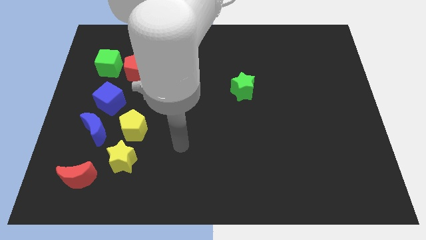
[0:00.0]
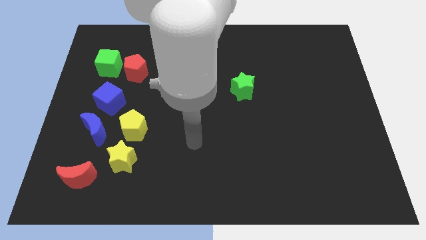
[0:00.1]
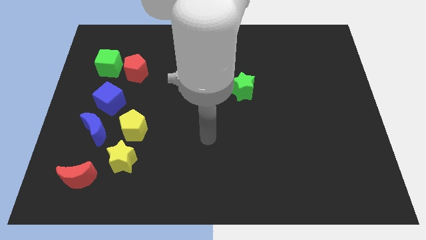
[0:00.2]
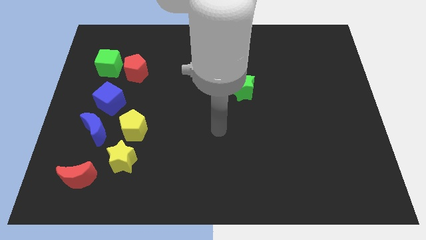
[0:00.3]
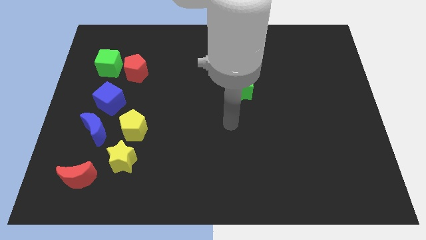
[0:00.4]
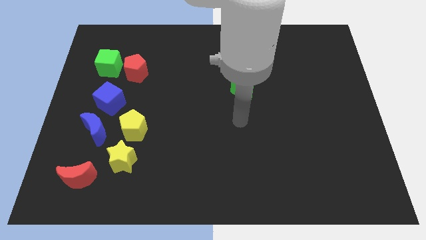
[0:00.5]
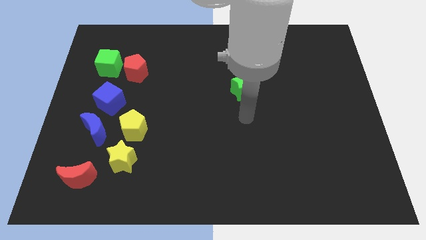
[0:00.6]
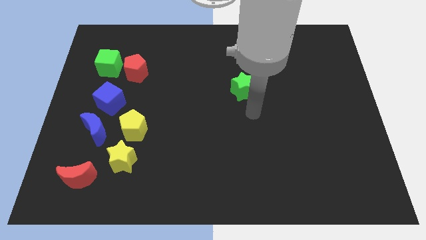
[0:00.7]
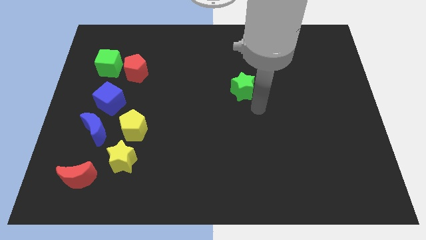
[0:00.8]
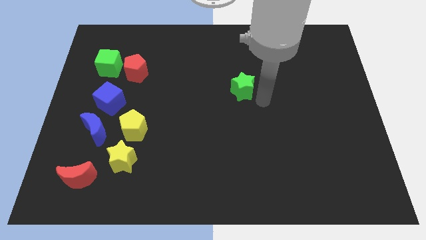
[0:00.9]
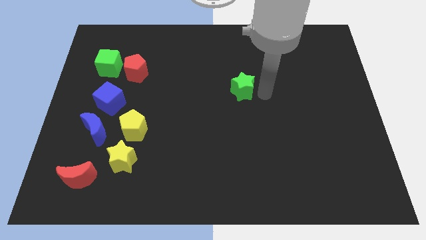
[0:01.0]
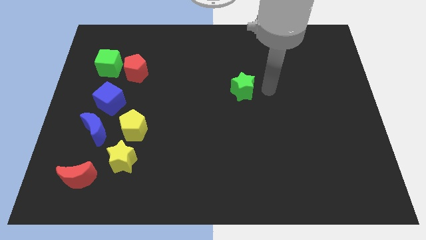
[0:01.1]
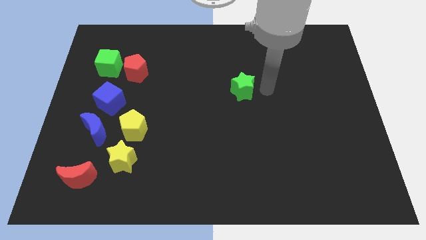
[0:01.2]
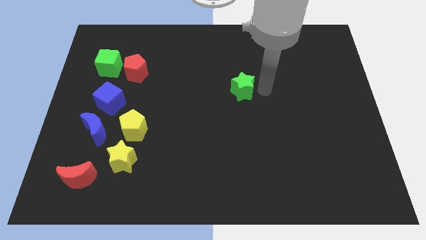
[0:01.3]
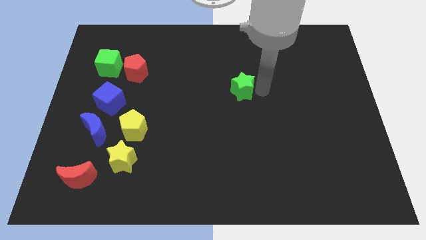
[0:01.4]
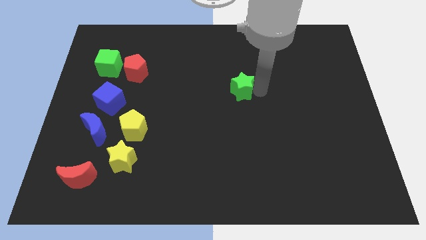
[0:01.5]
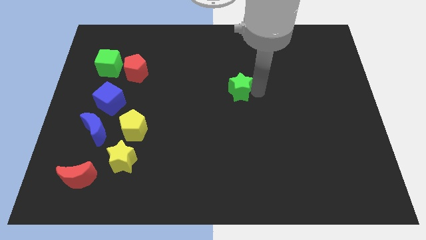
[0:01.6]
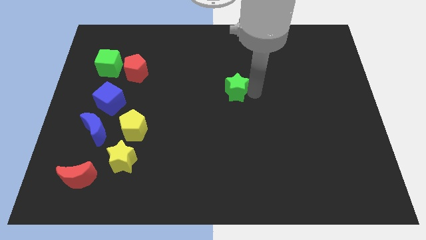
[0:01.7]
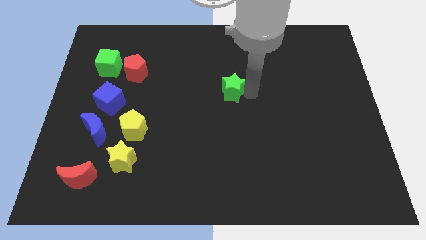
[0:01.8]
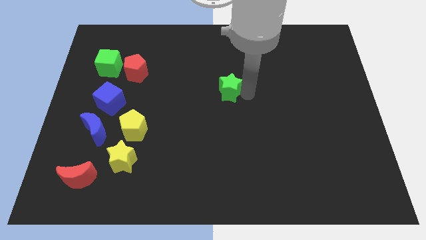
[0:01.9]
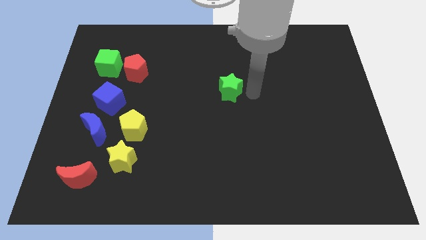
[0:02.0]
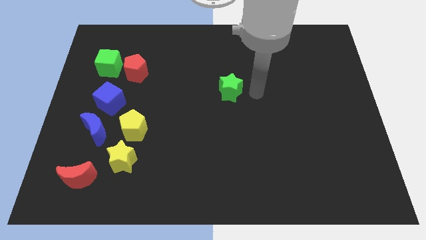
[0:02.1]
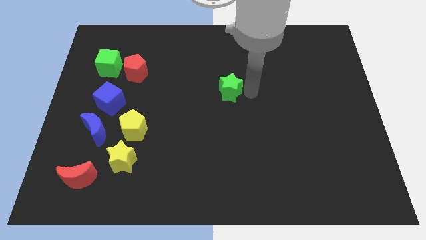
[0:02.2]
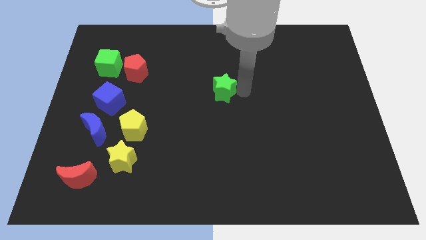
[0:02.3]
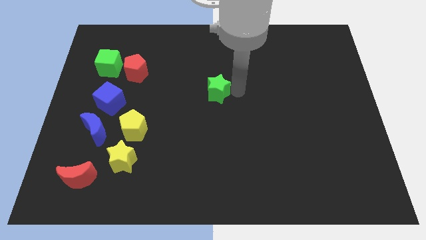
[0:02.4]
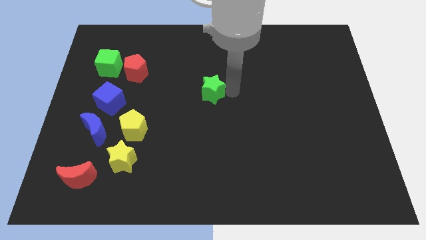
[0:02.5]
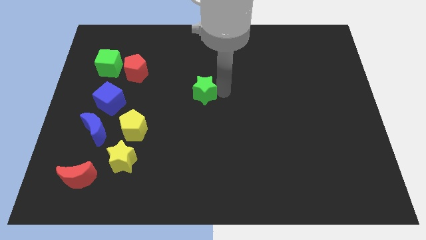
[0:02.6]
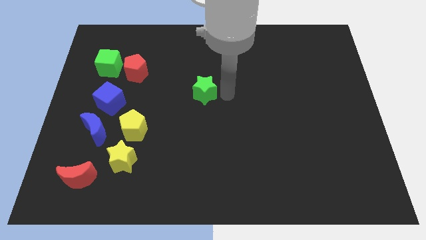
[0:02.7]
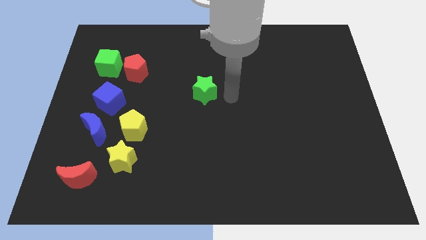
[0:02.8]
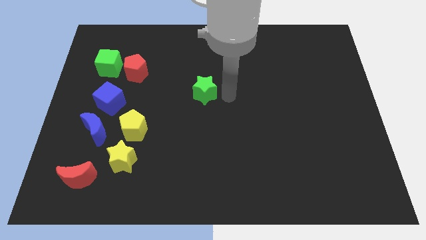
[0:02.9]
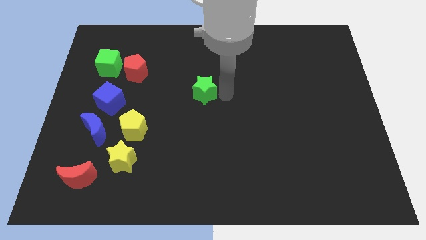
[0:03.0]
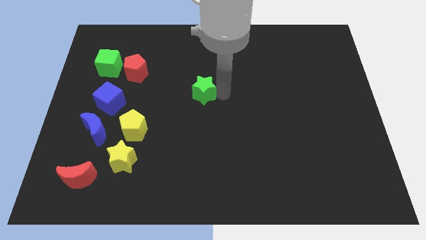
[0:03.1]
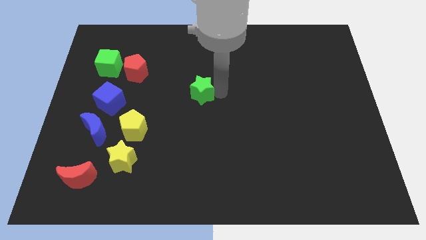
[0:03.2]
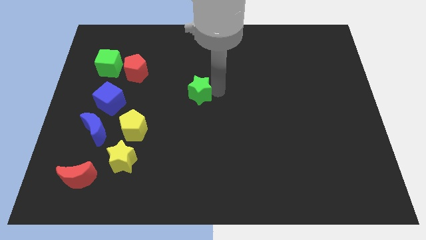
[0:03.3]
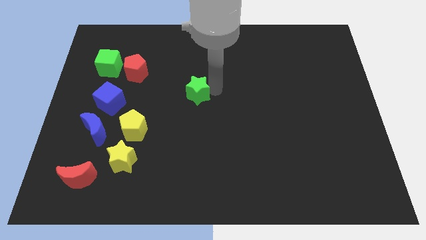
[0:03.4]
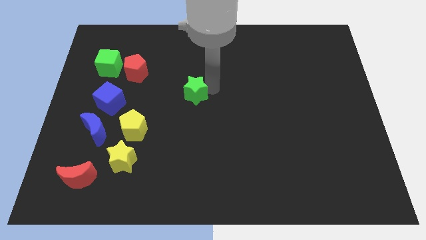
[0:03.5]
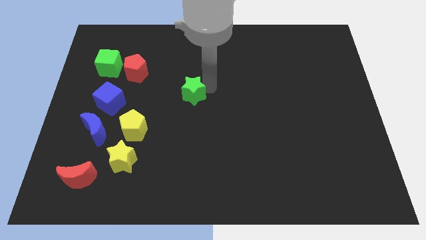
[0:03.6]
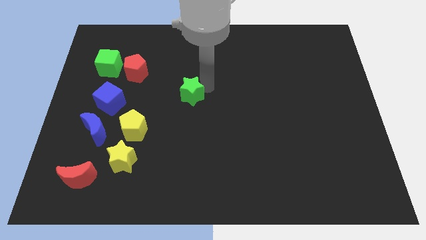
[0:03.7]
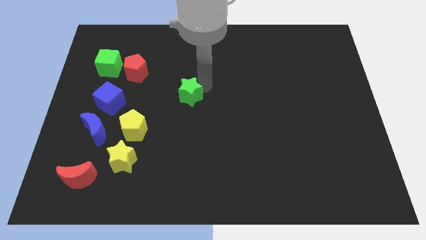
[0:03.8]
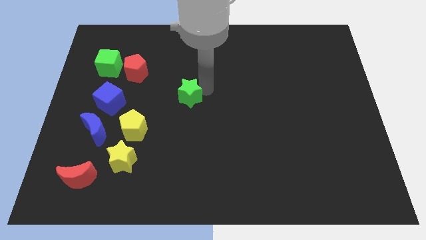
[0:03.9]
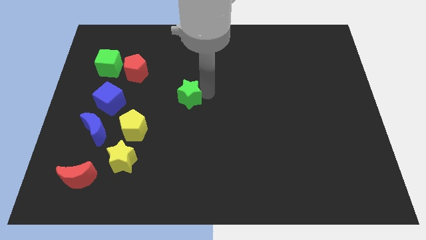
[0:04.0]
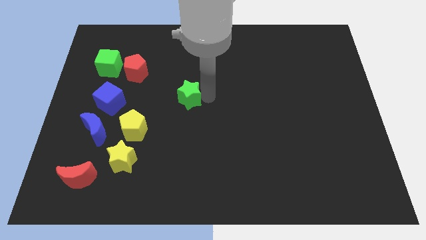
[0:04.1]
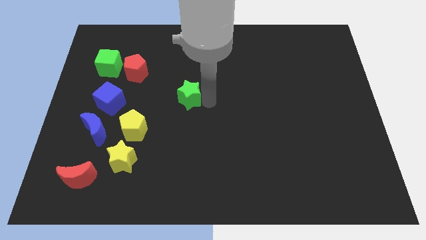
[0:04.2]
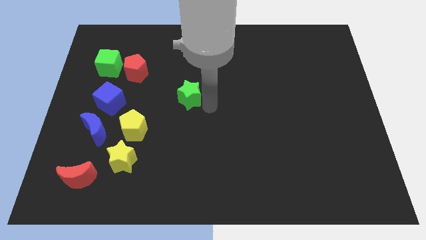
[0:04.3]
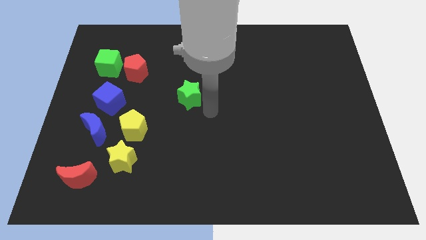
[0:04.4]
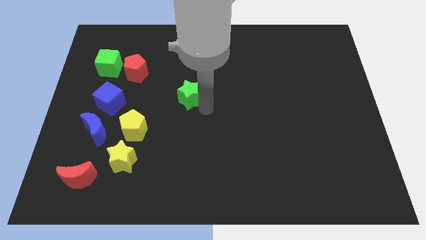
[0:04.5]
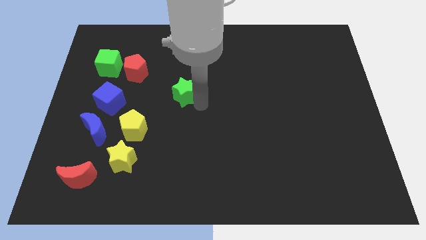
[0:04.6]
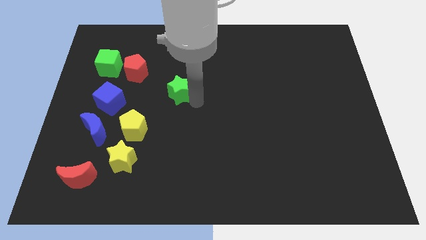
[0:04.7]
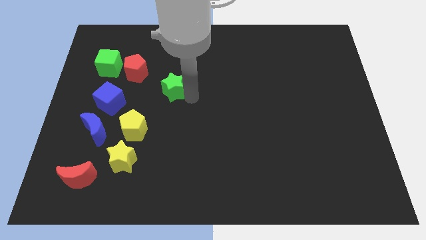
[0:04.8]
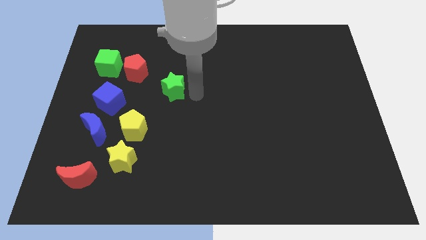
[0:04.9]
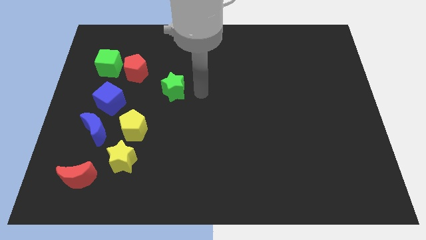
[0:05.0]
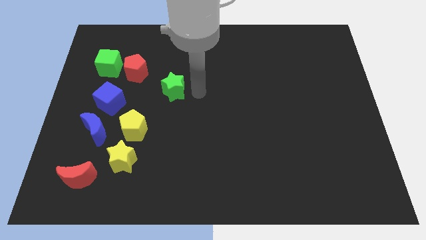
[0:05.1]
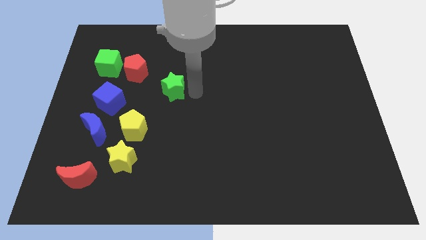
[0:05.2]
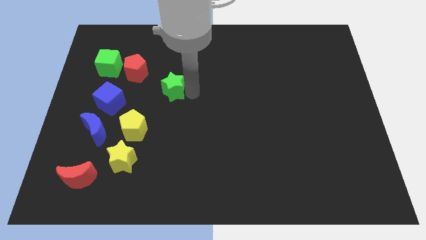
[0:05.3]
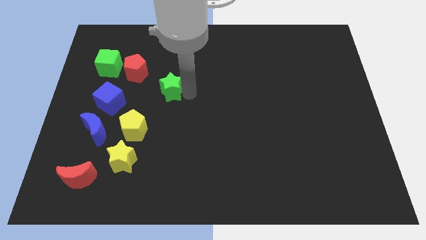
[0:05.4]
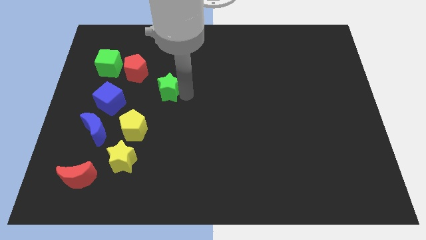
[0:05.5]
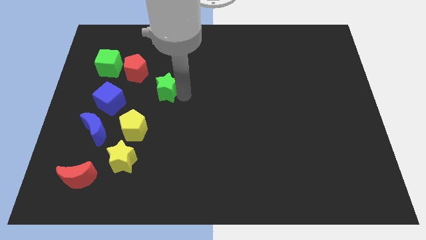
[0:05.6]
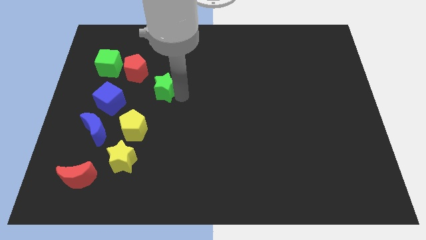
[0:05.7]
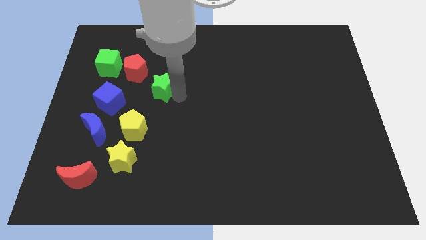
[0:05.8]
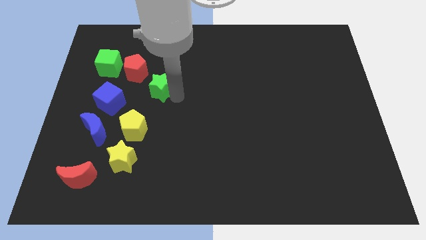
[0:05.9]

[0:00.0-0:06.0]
move the green star to the left

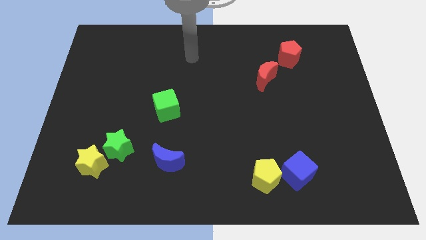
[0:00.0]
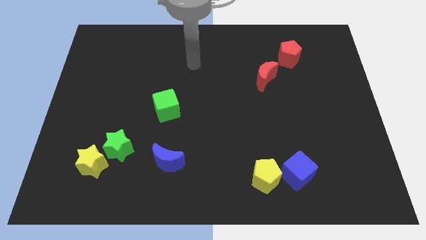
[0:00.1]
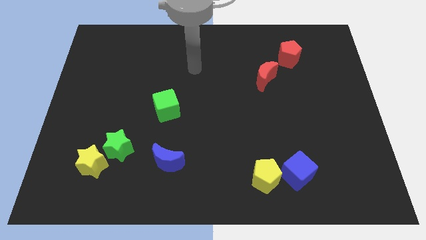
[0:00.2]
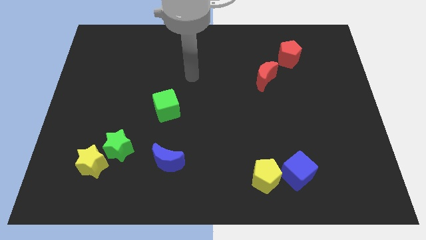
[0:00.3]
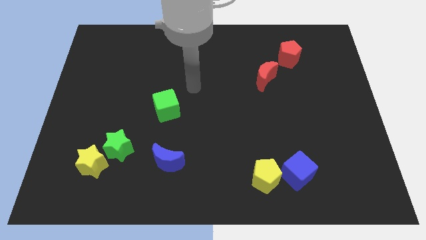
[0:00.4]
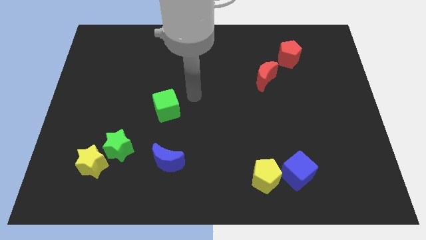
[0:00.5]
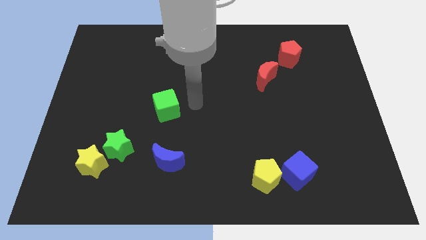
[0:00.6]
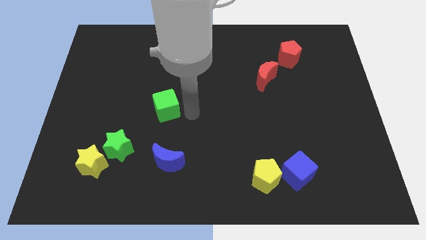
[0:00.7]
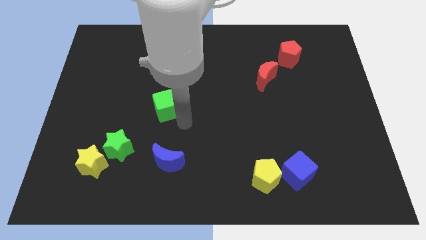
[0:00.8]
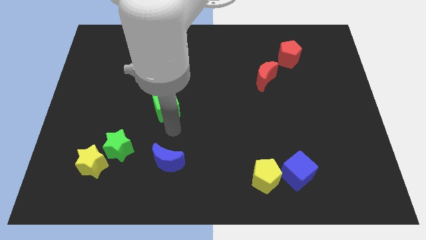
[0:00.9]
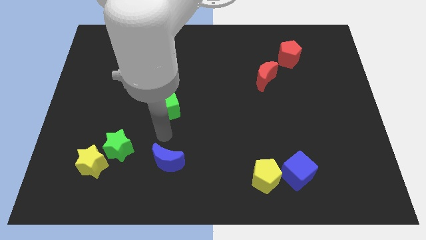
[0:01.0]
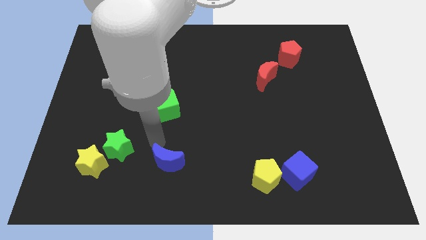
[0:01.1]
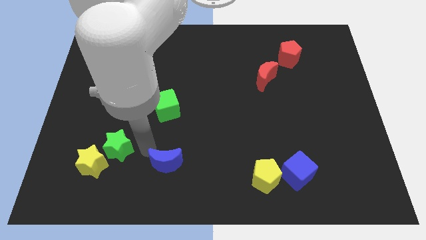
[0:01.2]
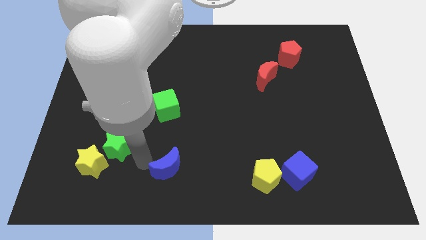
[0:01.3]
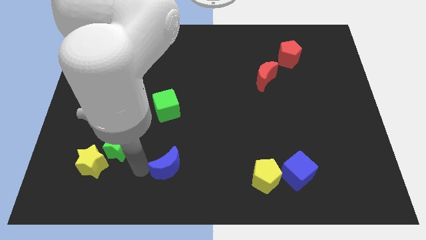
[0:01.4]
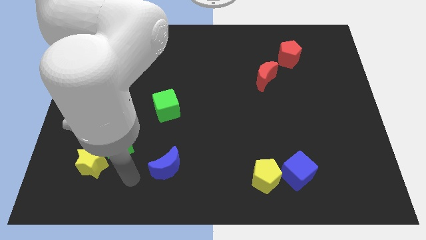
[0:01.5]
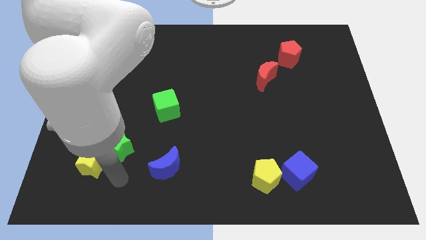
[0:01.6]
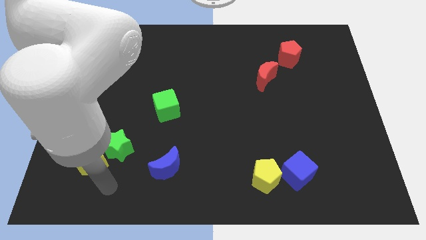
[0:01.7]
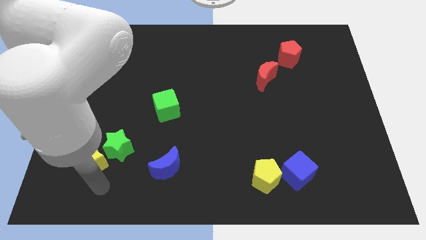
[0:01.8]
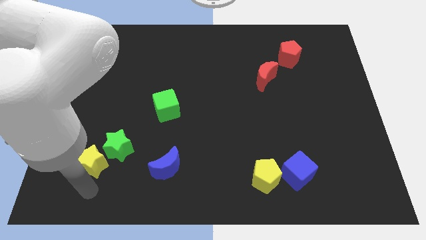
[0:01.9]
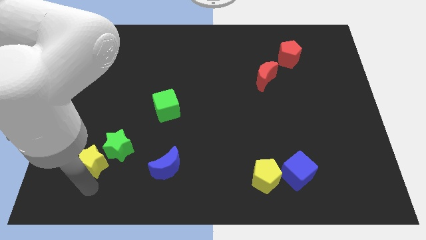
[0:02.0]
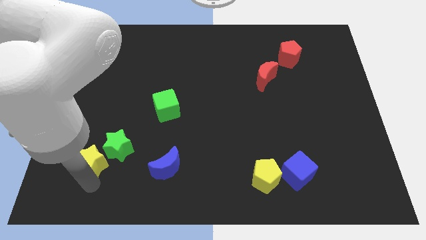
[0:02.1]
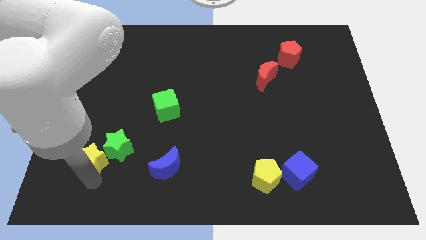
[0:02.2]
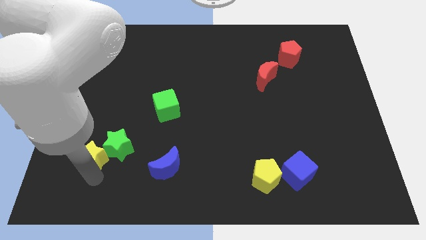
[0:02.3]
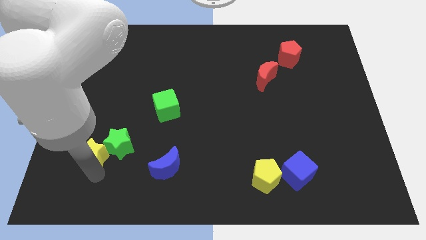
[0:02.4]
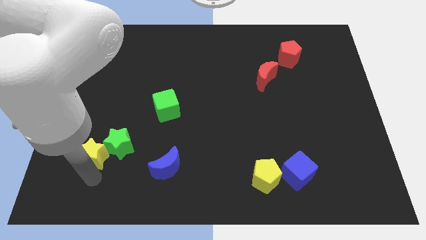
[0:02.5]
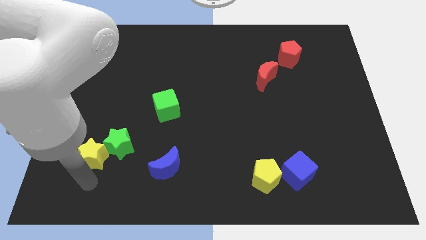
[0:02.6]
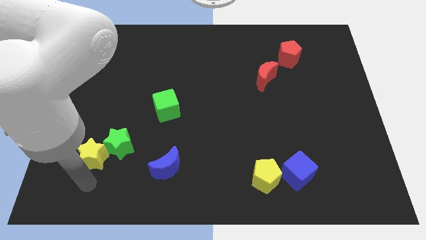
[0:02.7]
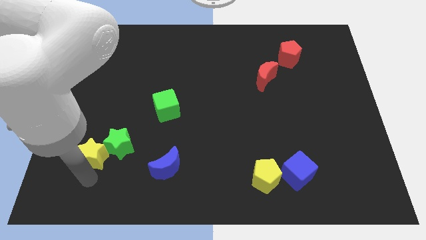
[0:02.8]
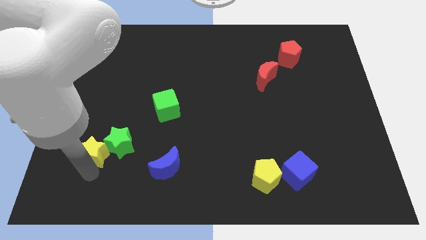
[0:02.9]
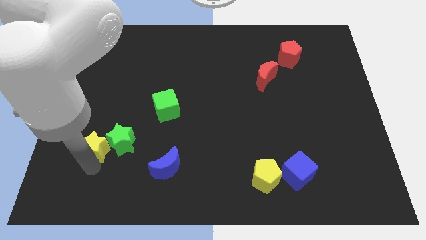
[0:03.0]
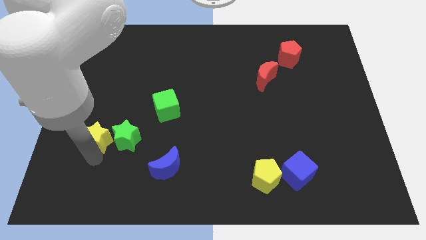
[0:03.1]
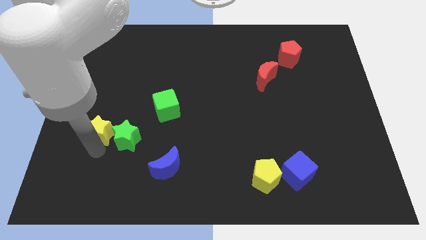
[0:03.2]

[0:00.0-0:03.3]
move the yellow star a little upwards
